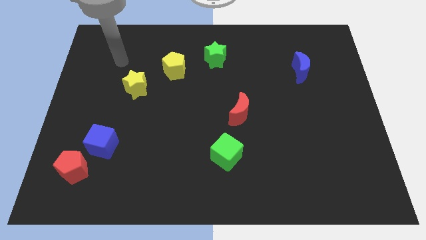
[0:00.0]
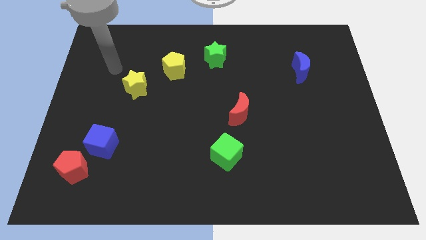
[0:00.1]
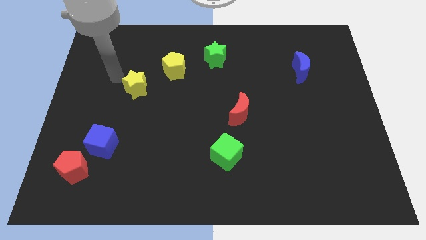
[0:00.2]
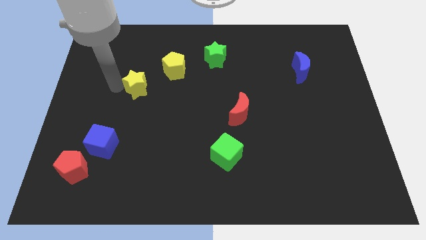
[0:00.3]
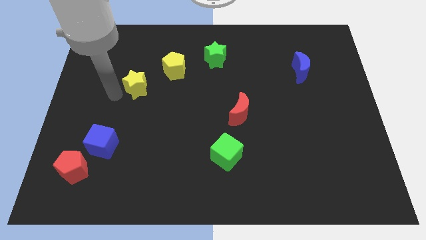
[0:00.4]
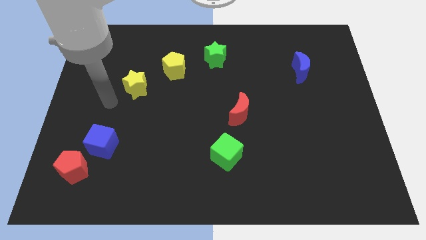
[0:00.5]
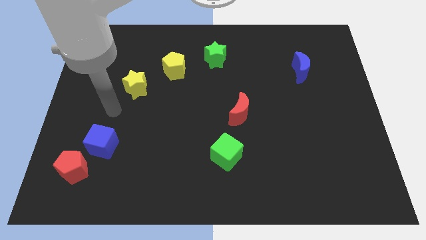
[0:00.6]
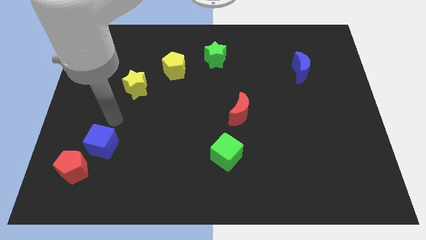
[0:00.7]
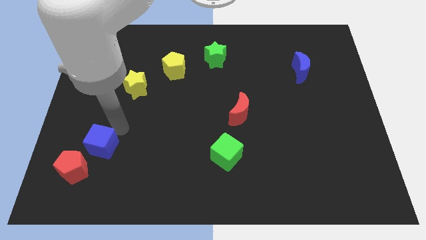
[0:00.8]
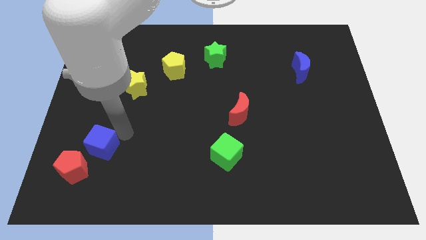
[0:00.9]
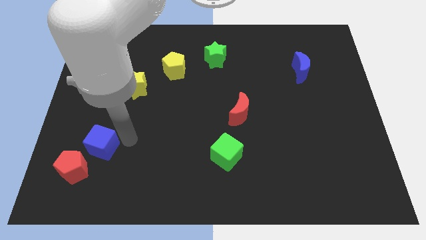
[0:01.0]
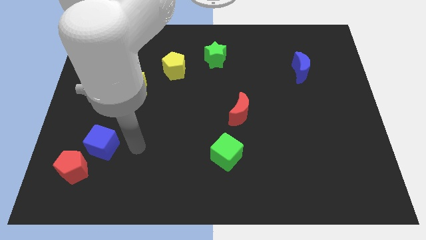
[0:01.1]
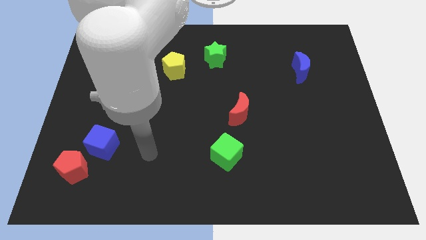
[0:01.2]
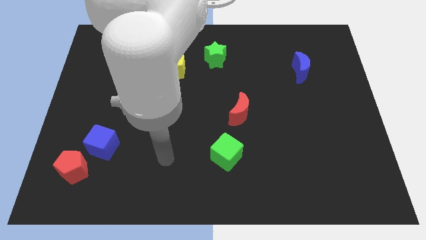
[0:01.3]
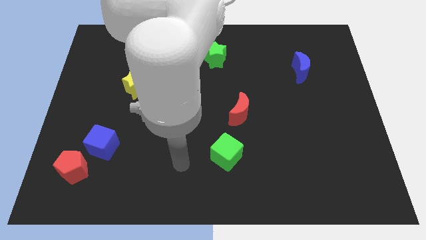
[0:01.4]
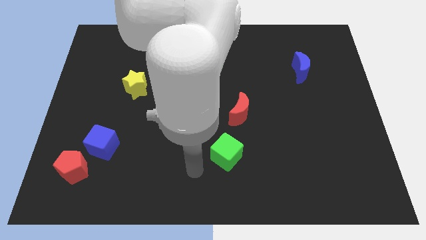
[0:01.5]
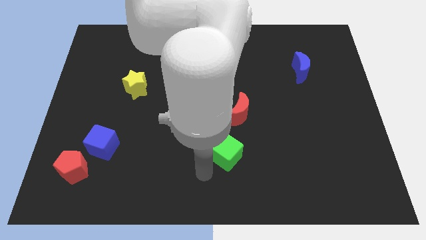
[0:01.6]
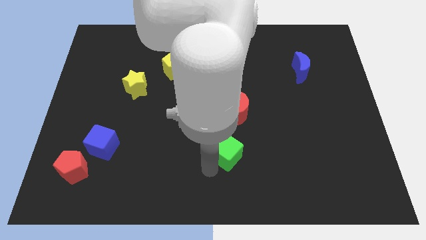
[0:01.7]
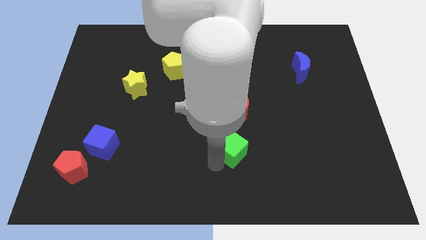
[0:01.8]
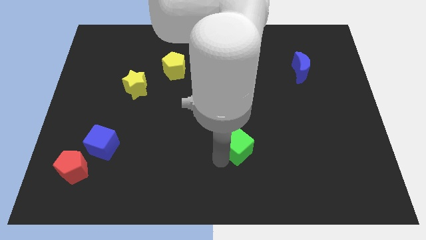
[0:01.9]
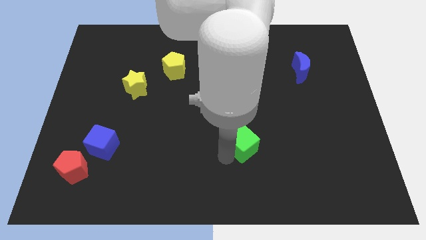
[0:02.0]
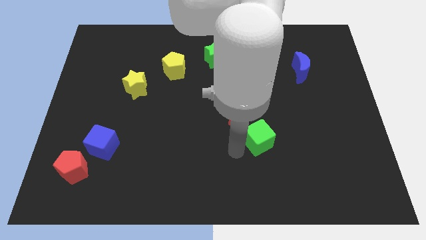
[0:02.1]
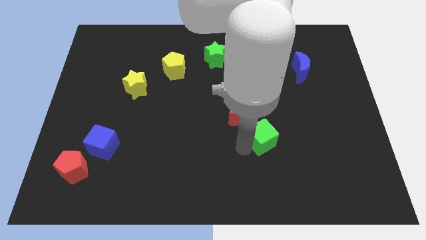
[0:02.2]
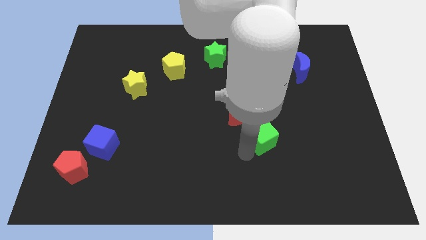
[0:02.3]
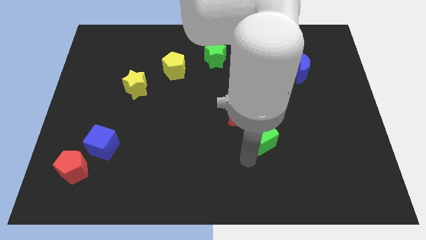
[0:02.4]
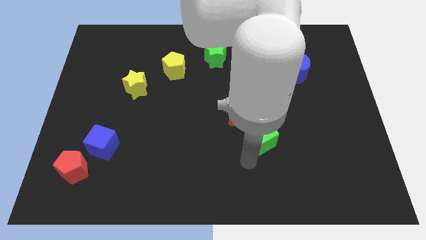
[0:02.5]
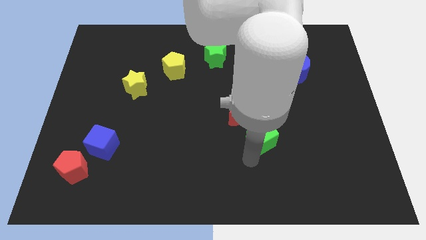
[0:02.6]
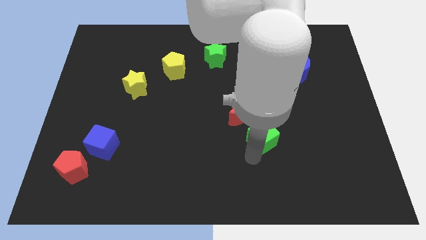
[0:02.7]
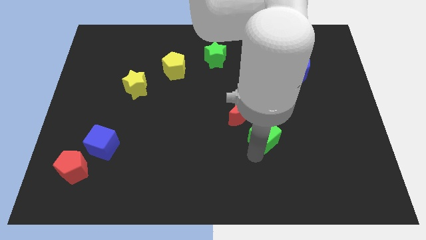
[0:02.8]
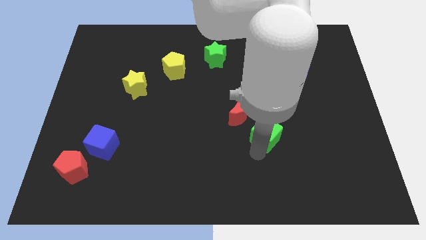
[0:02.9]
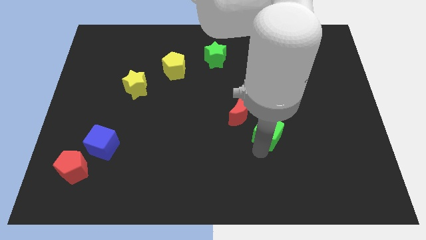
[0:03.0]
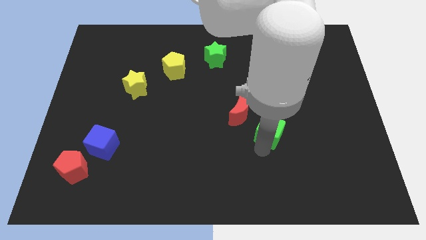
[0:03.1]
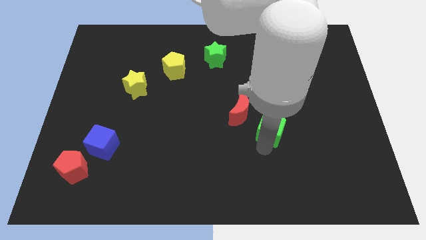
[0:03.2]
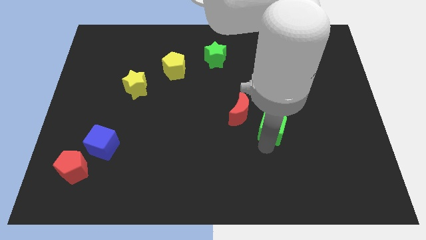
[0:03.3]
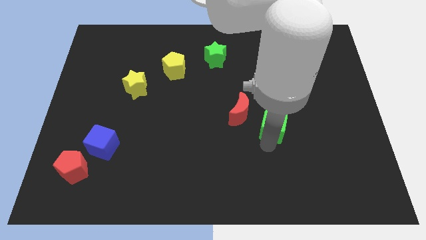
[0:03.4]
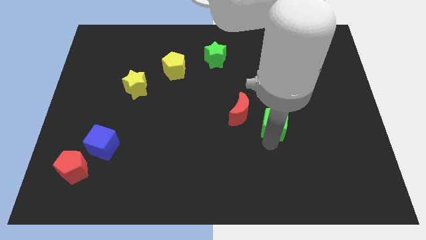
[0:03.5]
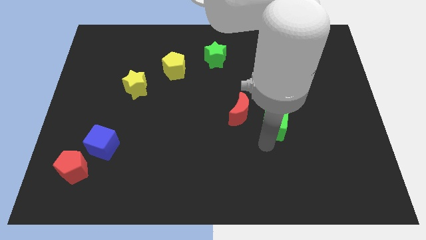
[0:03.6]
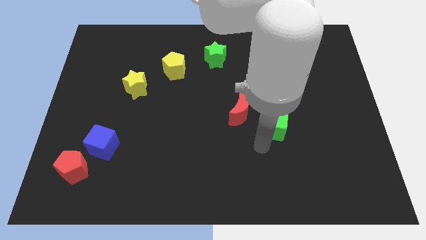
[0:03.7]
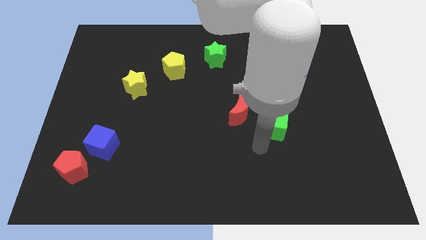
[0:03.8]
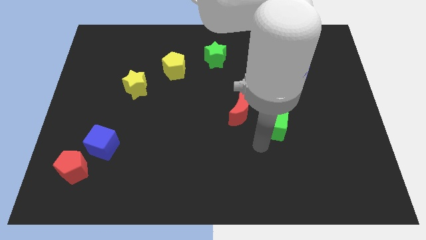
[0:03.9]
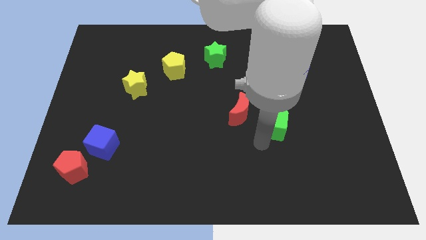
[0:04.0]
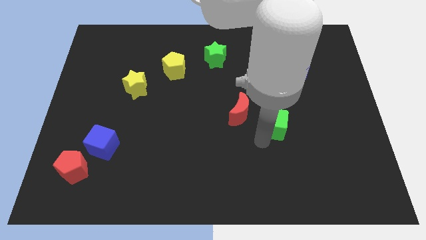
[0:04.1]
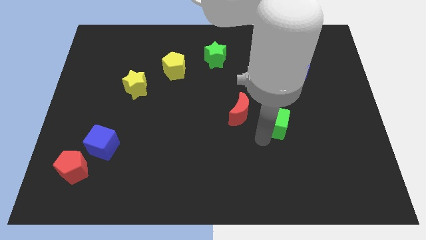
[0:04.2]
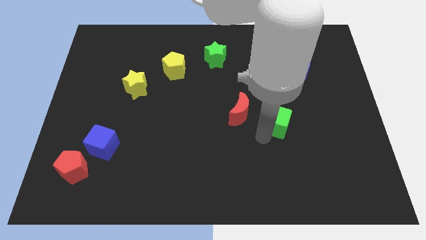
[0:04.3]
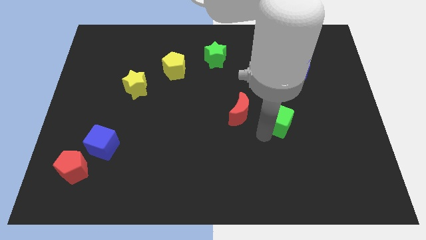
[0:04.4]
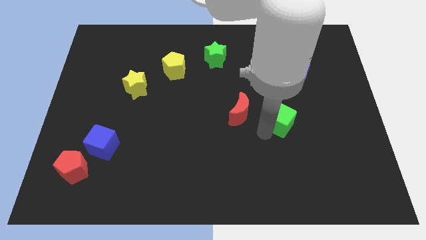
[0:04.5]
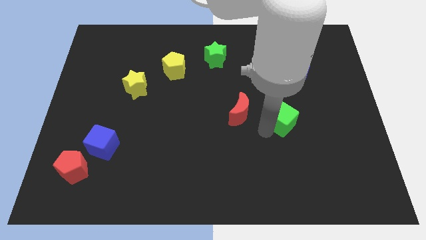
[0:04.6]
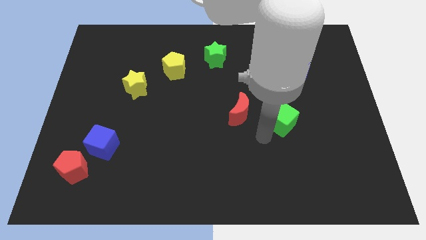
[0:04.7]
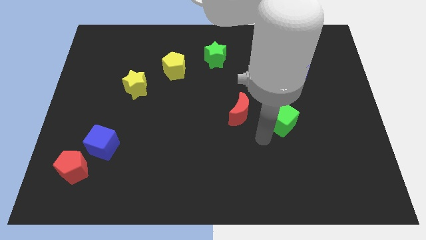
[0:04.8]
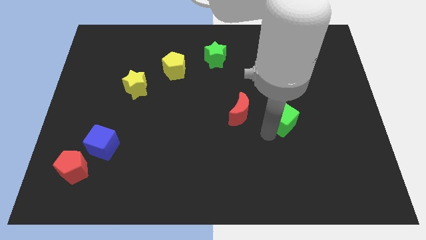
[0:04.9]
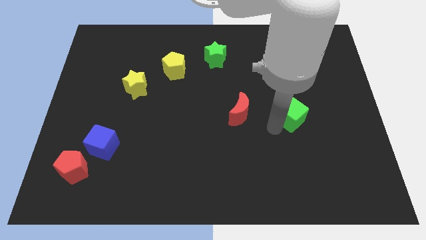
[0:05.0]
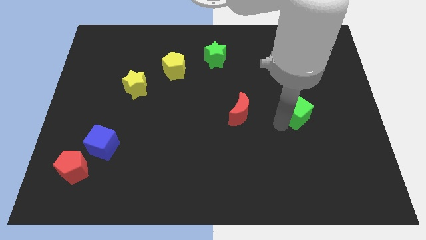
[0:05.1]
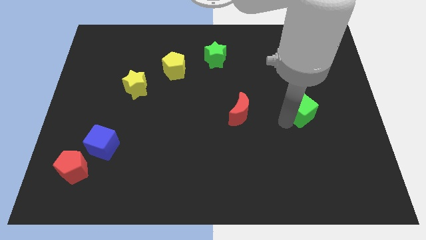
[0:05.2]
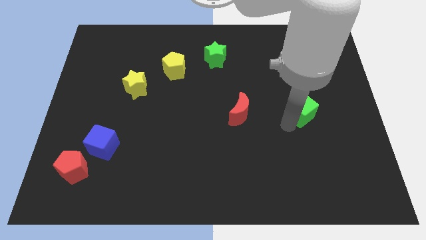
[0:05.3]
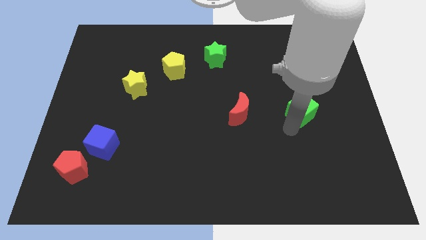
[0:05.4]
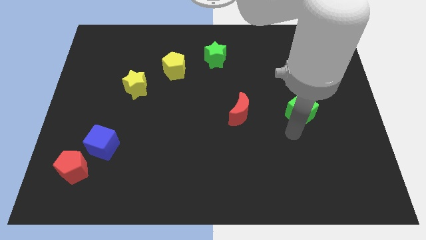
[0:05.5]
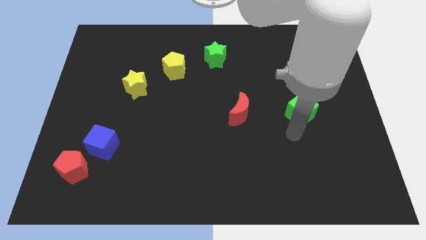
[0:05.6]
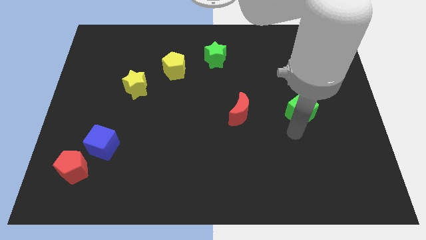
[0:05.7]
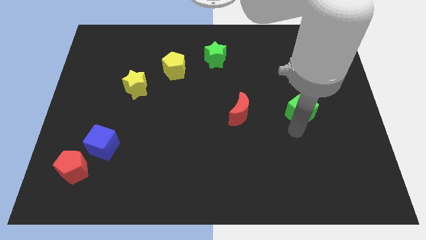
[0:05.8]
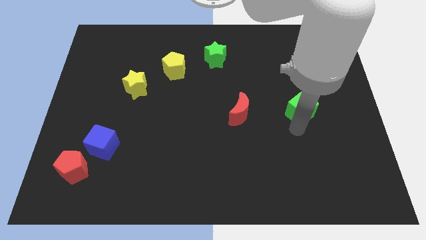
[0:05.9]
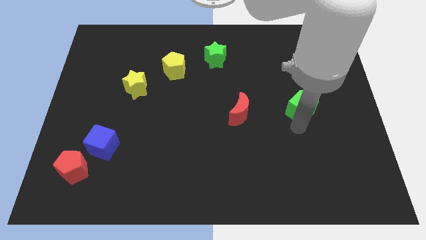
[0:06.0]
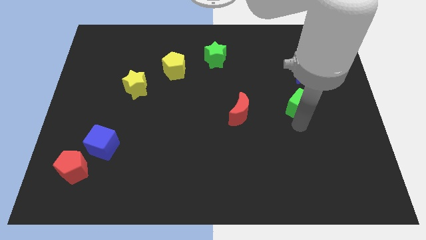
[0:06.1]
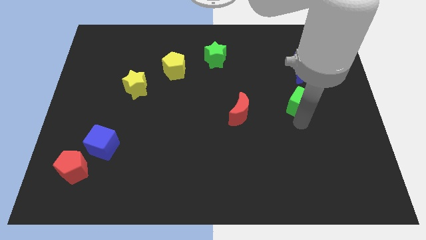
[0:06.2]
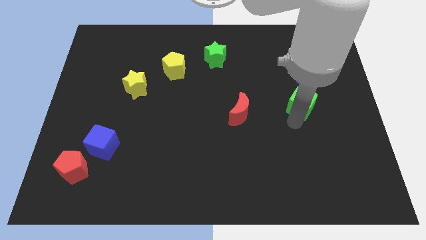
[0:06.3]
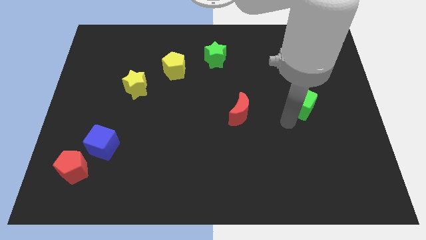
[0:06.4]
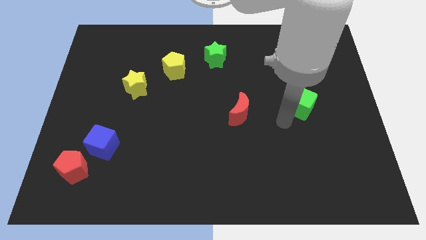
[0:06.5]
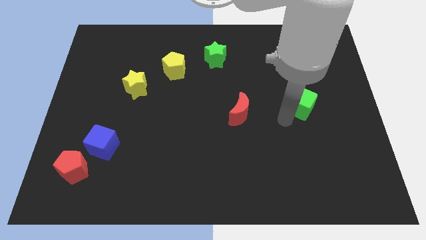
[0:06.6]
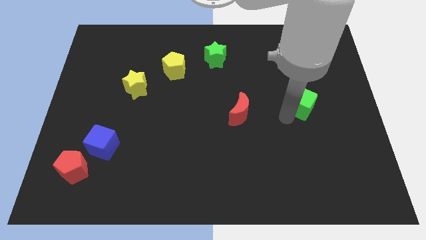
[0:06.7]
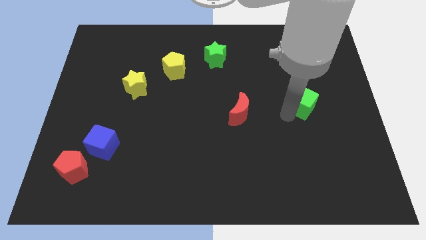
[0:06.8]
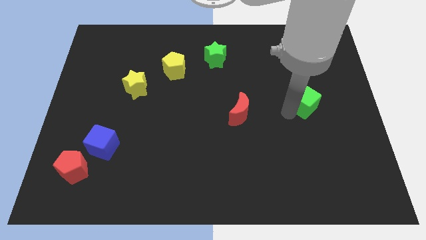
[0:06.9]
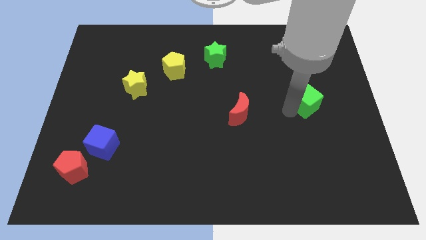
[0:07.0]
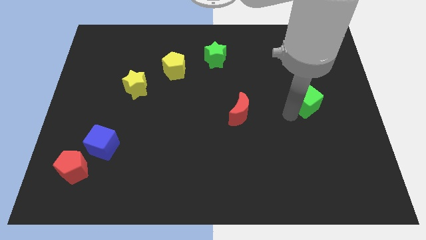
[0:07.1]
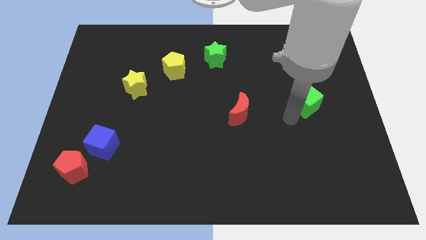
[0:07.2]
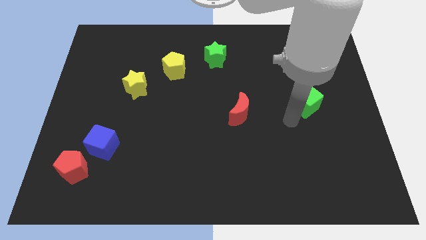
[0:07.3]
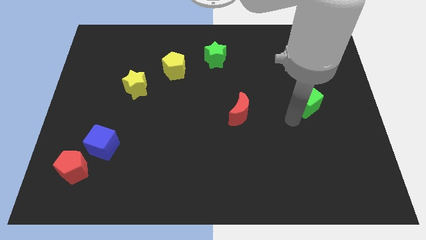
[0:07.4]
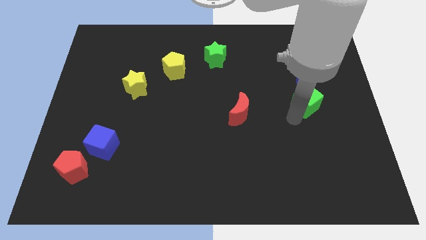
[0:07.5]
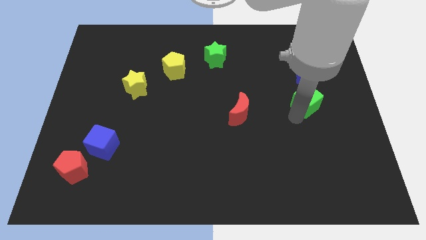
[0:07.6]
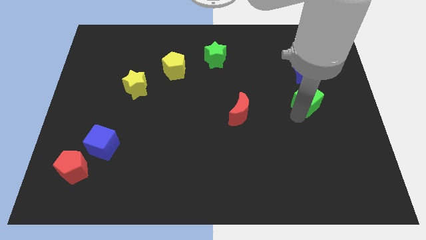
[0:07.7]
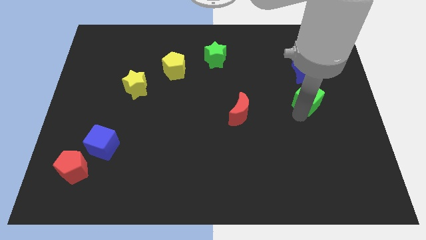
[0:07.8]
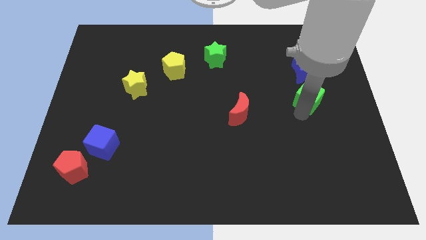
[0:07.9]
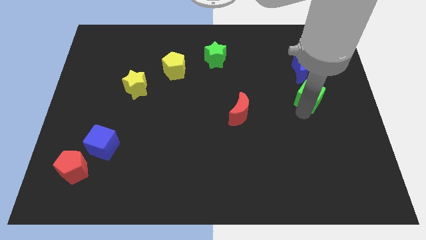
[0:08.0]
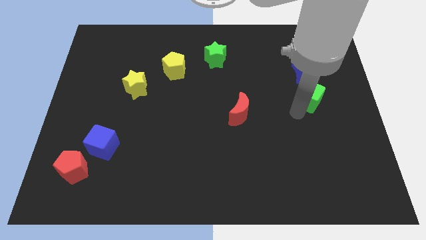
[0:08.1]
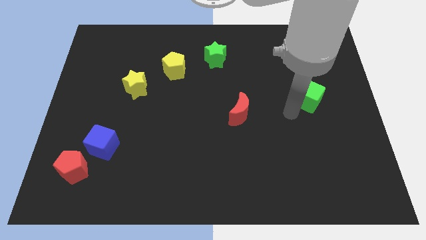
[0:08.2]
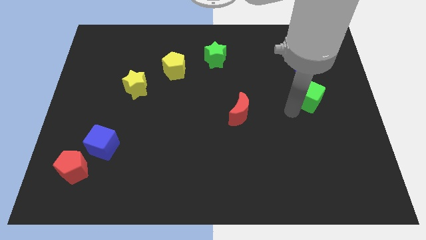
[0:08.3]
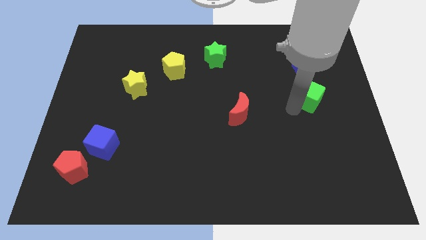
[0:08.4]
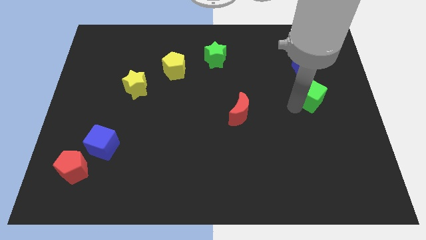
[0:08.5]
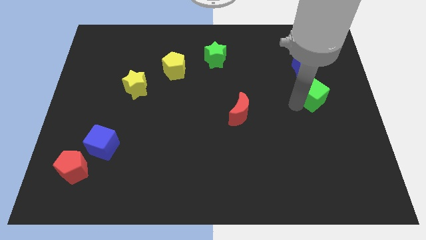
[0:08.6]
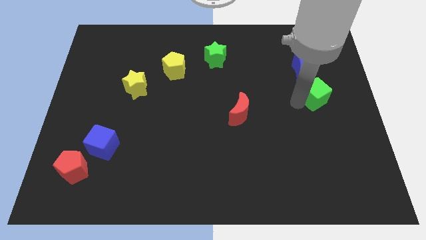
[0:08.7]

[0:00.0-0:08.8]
push the green cube to the bottom right side of the blue moon
